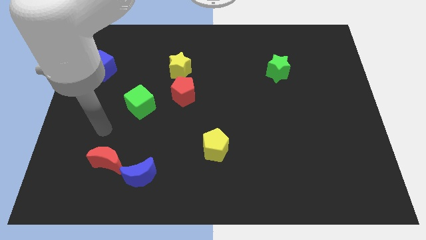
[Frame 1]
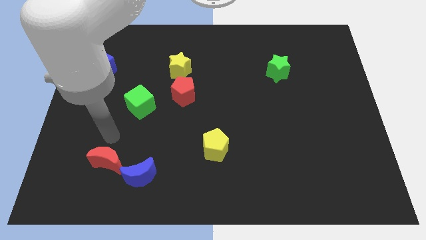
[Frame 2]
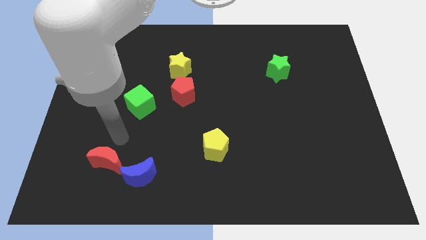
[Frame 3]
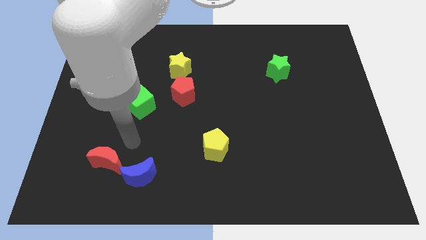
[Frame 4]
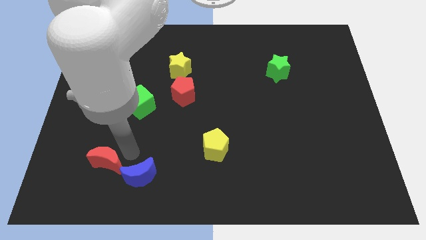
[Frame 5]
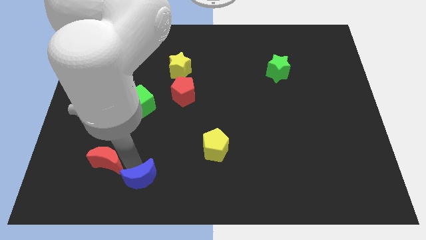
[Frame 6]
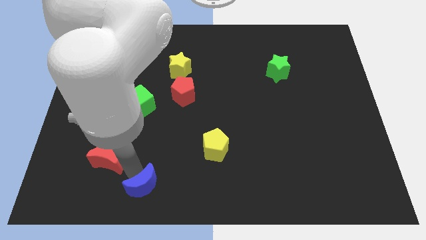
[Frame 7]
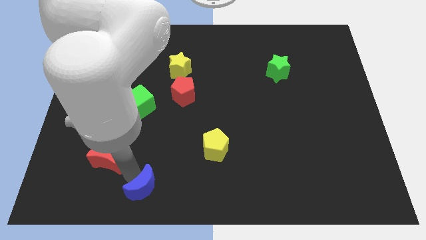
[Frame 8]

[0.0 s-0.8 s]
pull the red moon apart from the blue moon

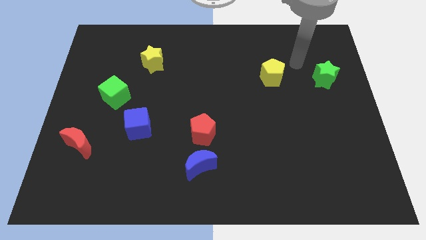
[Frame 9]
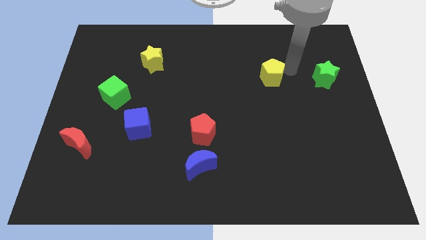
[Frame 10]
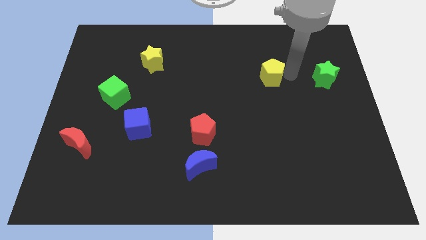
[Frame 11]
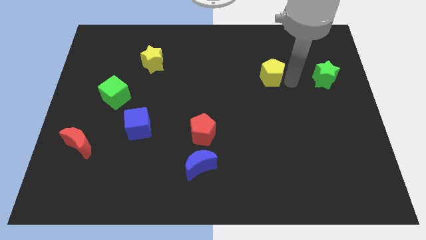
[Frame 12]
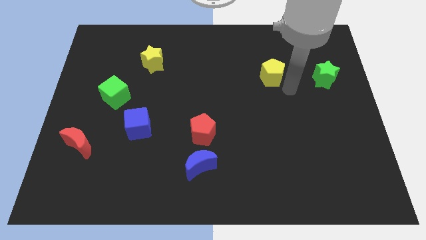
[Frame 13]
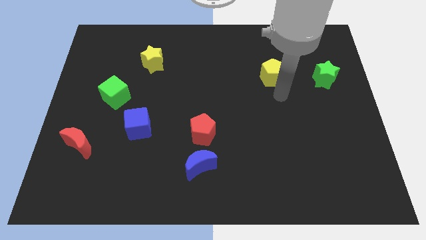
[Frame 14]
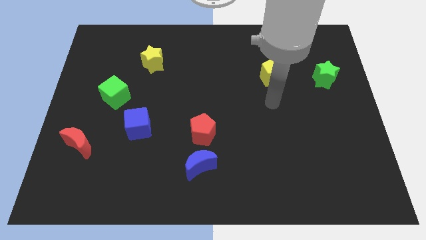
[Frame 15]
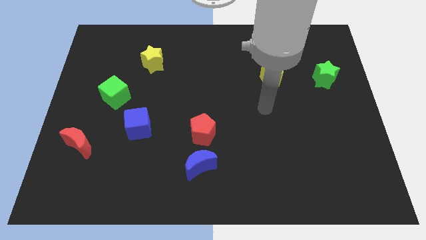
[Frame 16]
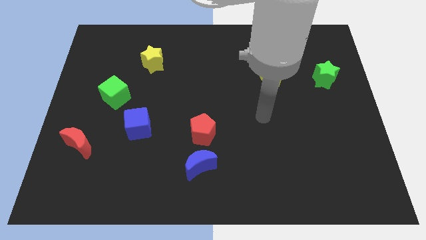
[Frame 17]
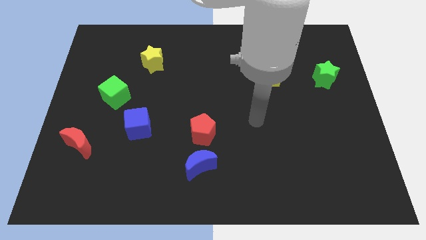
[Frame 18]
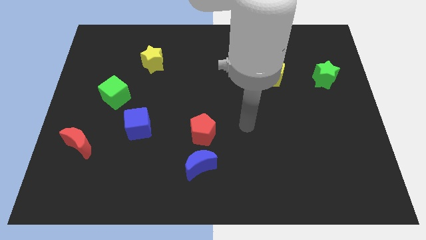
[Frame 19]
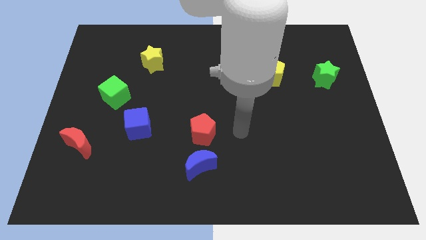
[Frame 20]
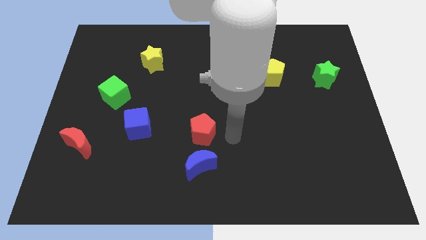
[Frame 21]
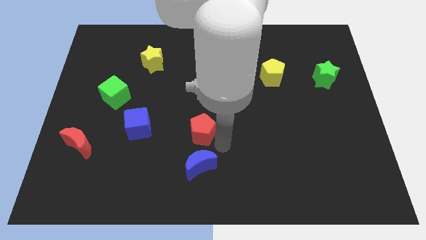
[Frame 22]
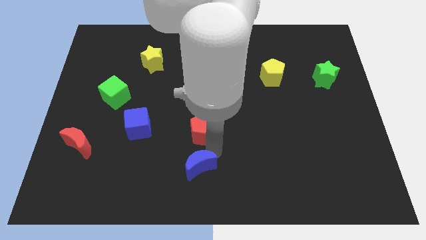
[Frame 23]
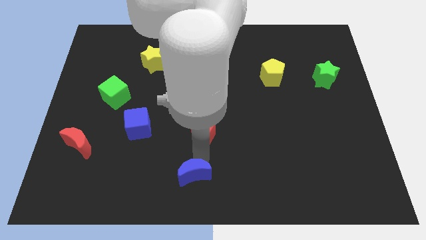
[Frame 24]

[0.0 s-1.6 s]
separate the red pentagon from the blue moon

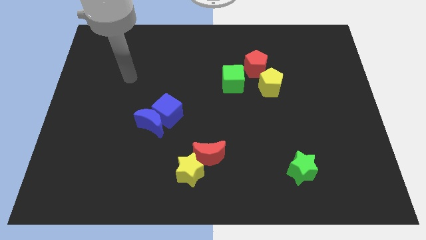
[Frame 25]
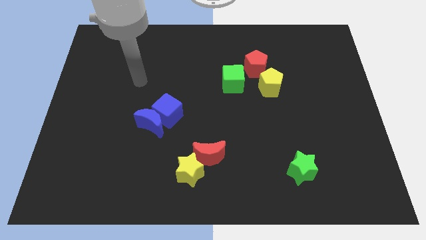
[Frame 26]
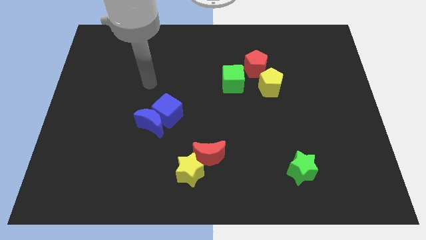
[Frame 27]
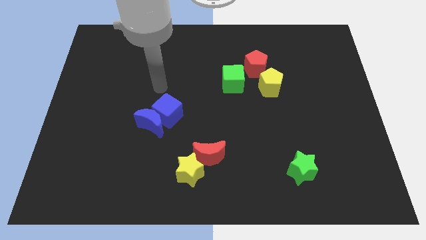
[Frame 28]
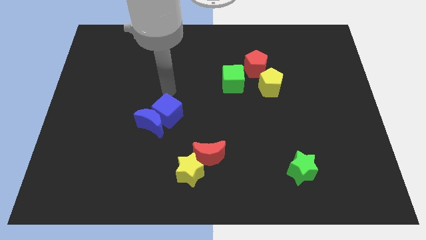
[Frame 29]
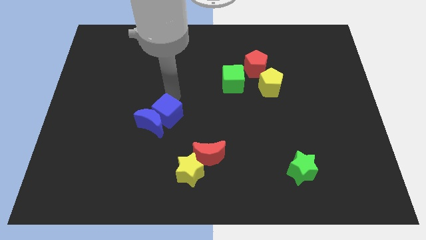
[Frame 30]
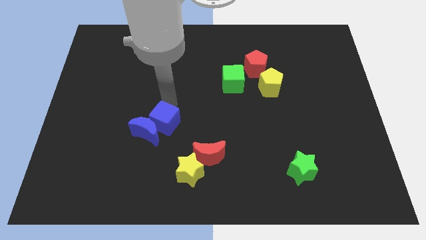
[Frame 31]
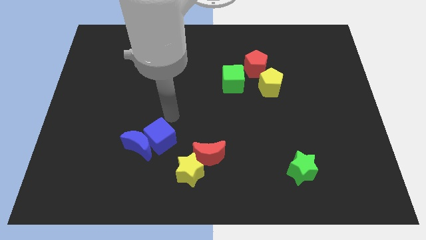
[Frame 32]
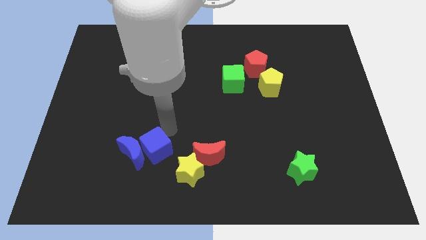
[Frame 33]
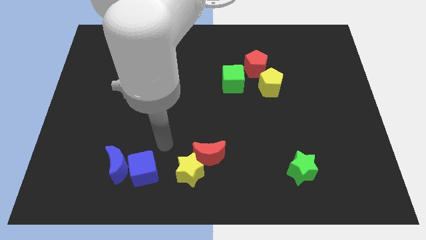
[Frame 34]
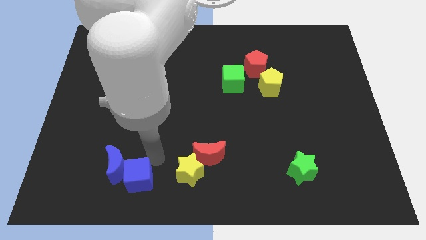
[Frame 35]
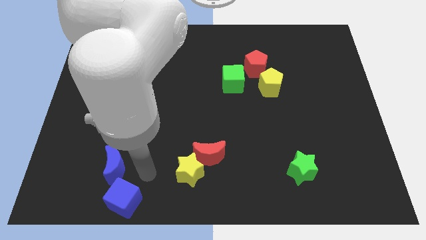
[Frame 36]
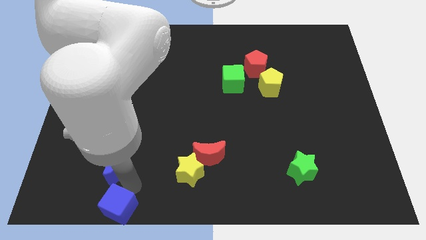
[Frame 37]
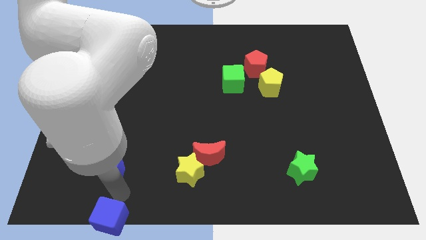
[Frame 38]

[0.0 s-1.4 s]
pull the blue moon apart from the blue cube

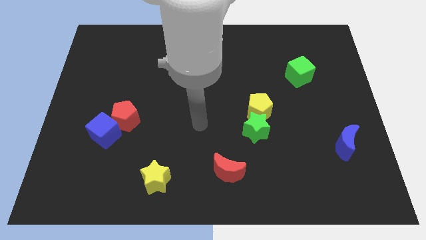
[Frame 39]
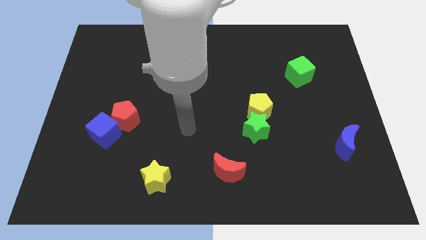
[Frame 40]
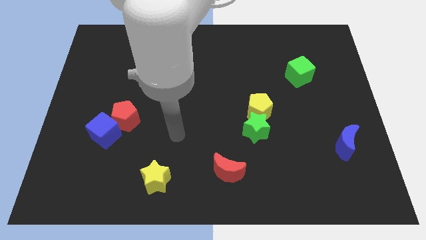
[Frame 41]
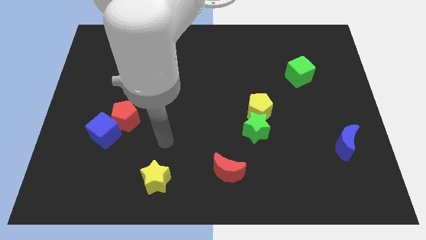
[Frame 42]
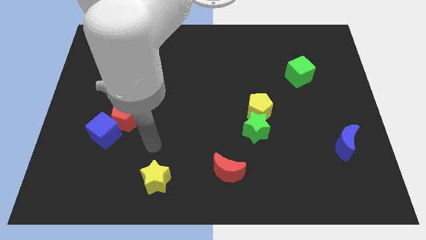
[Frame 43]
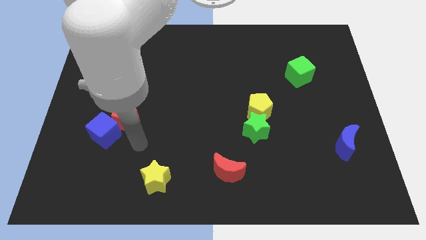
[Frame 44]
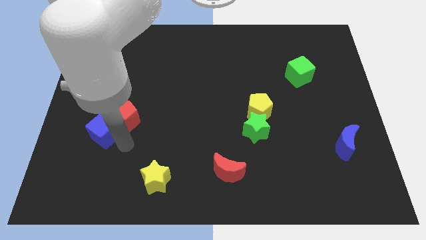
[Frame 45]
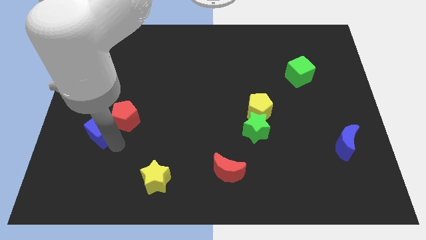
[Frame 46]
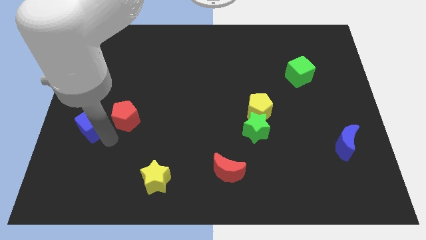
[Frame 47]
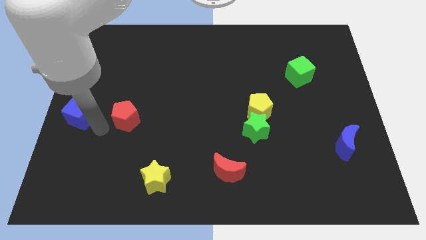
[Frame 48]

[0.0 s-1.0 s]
separate the red pentagon from the blue cube

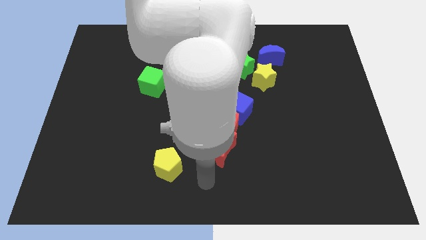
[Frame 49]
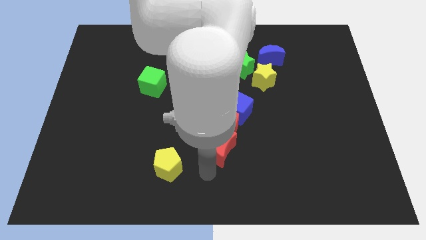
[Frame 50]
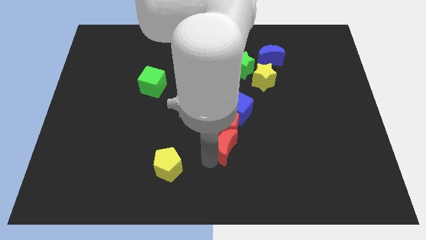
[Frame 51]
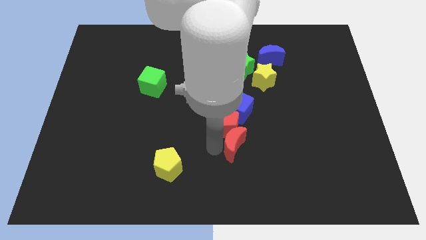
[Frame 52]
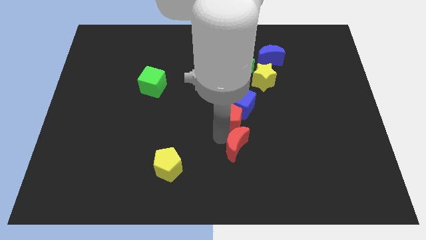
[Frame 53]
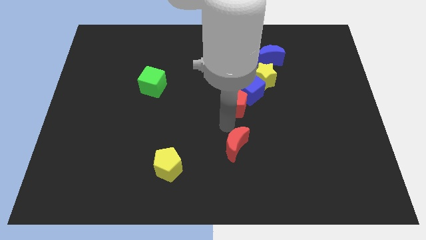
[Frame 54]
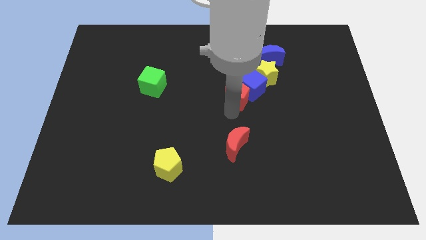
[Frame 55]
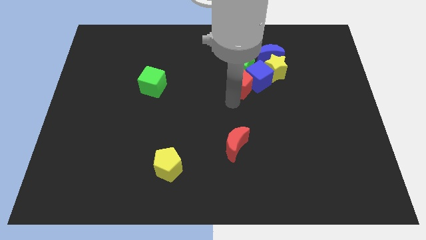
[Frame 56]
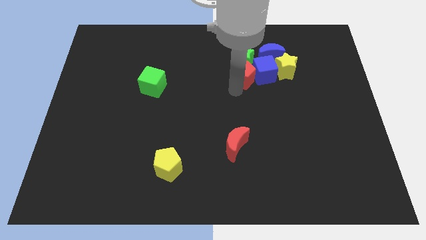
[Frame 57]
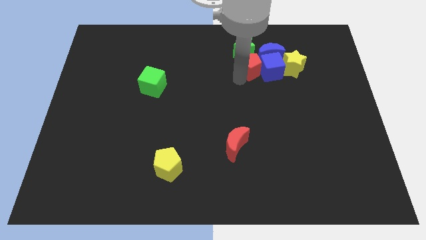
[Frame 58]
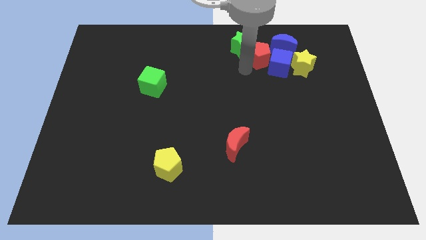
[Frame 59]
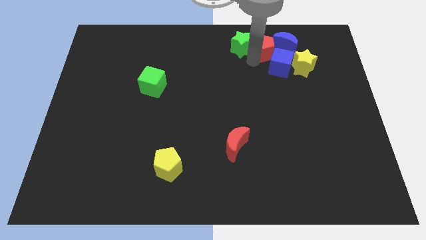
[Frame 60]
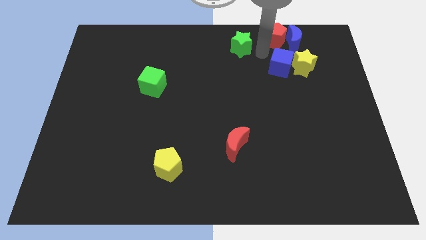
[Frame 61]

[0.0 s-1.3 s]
separate the blue cube from the red pentagon

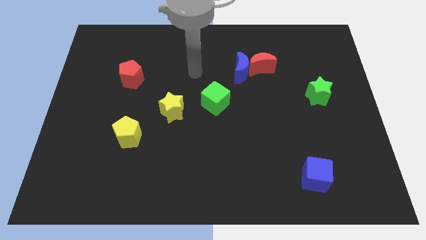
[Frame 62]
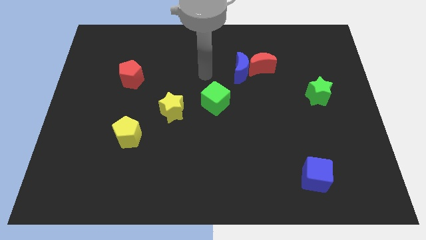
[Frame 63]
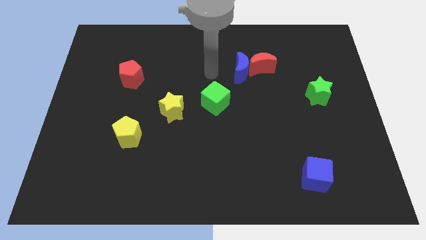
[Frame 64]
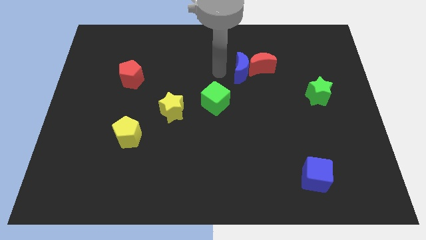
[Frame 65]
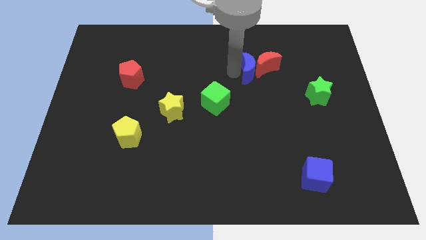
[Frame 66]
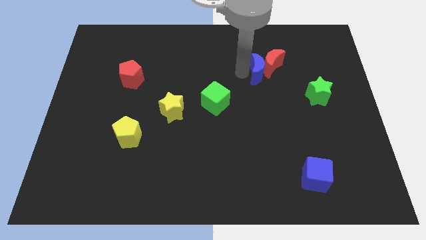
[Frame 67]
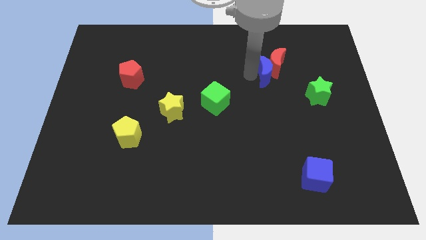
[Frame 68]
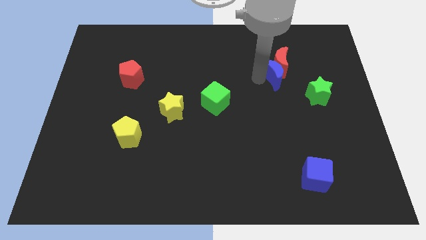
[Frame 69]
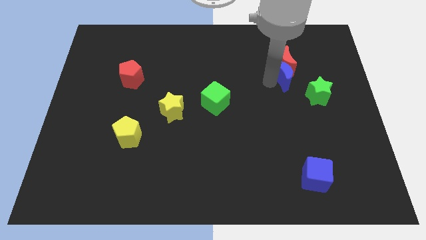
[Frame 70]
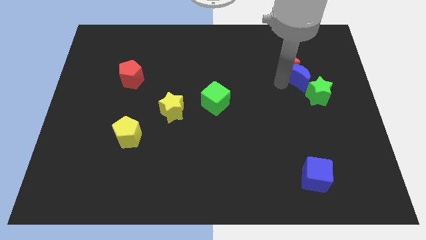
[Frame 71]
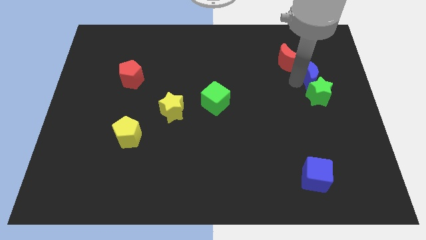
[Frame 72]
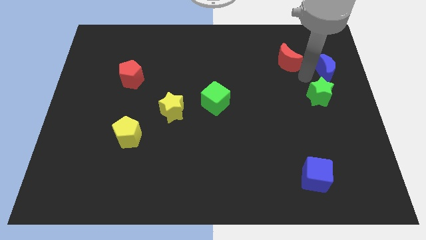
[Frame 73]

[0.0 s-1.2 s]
move the red moon away from the blue moon

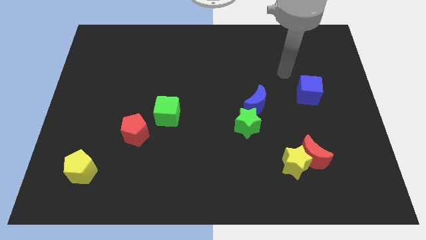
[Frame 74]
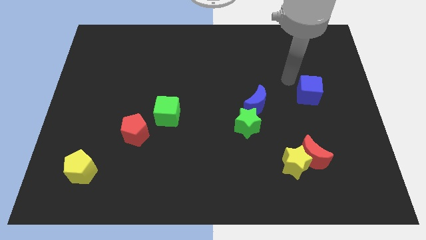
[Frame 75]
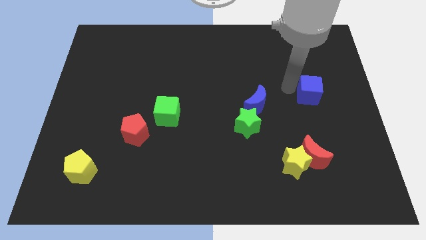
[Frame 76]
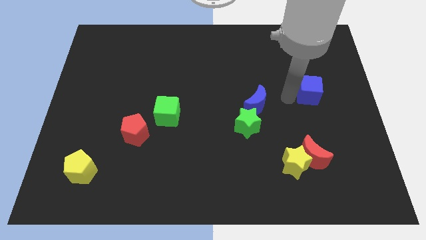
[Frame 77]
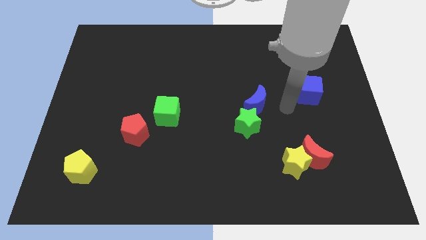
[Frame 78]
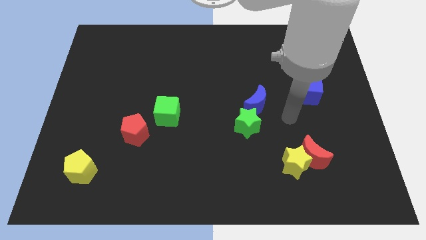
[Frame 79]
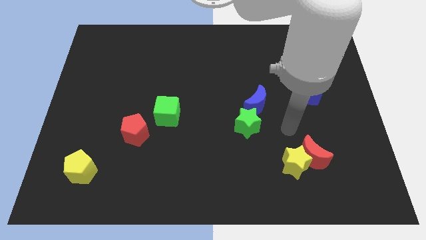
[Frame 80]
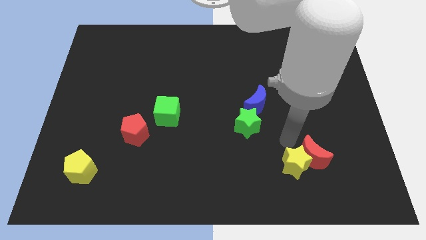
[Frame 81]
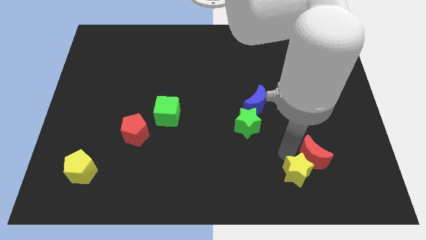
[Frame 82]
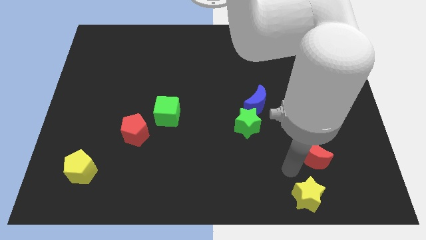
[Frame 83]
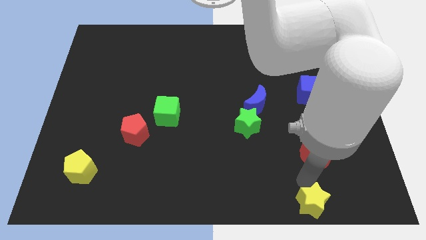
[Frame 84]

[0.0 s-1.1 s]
move the red moon away from the yellow star

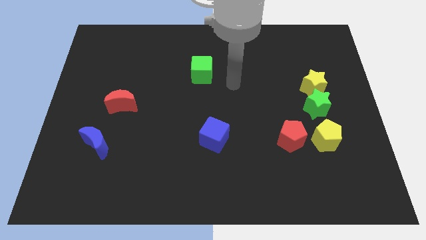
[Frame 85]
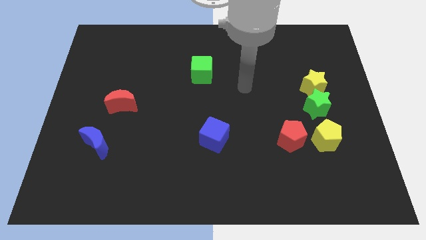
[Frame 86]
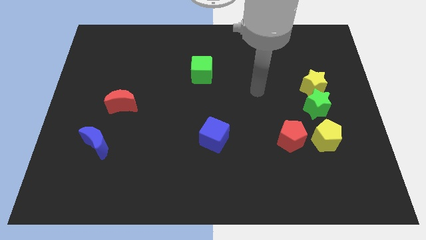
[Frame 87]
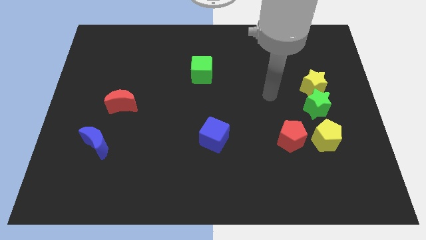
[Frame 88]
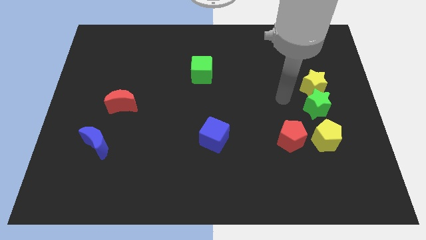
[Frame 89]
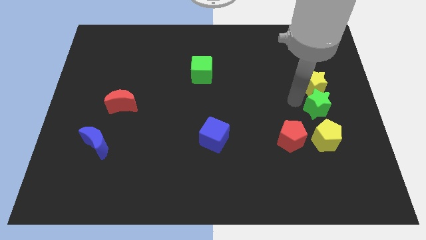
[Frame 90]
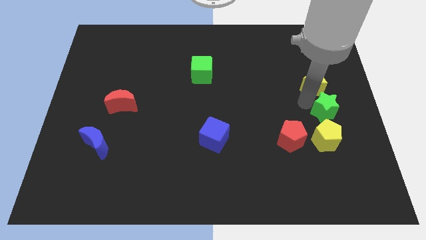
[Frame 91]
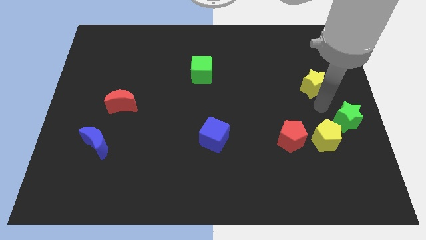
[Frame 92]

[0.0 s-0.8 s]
separate the yellow star from the green star
